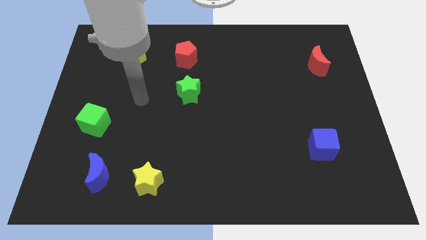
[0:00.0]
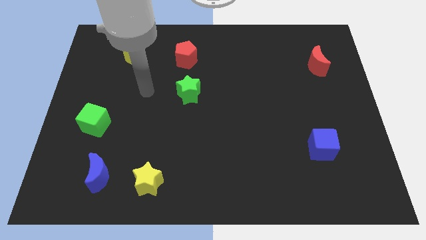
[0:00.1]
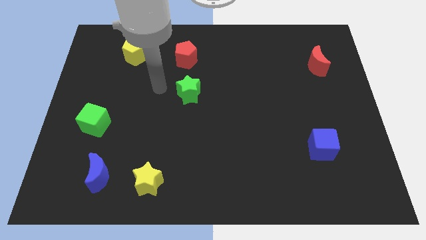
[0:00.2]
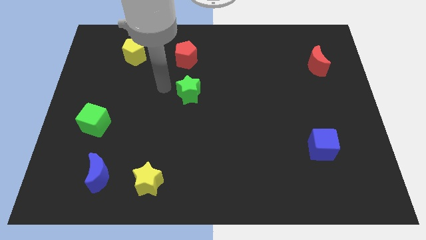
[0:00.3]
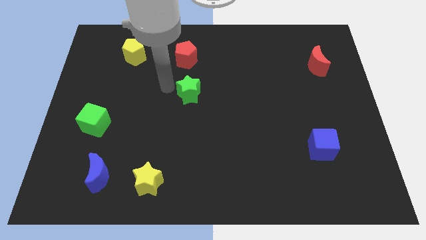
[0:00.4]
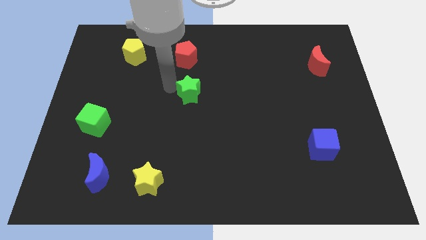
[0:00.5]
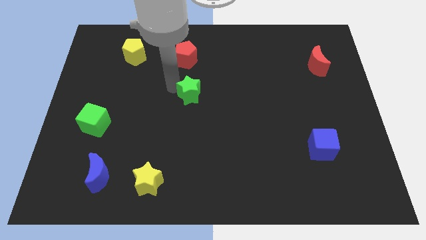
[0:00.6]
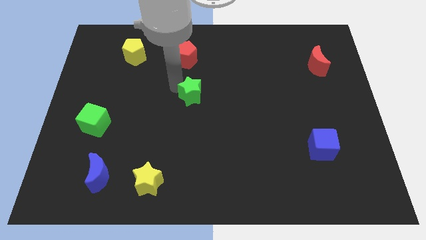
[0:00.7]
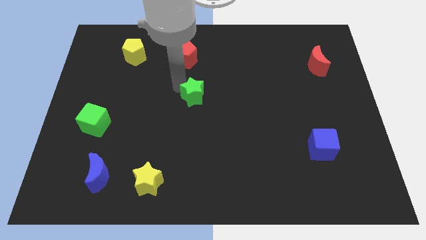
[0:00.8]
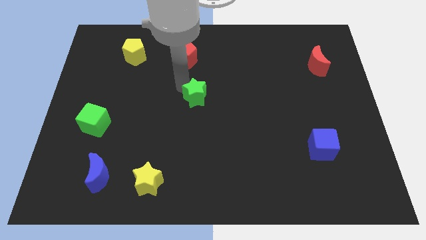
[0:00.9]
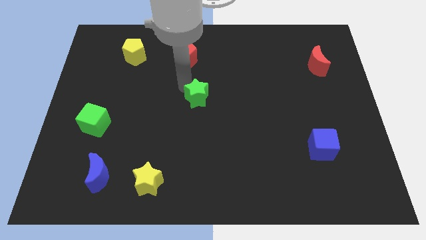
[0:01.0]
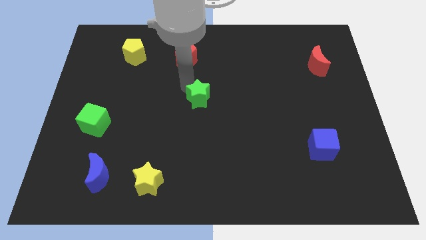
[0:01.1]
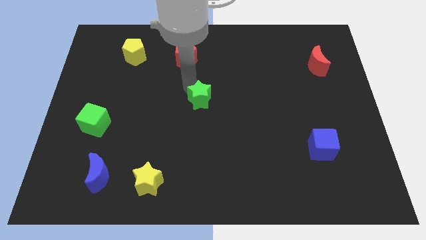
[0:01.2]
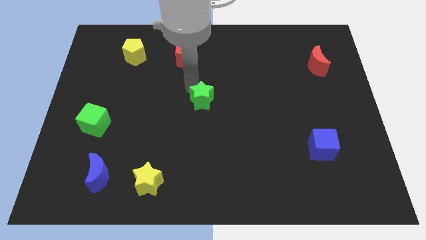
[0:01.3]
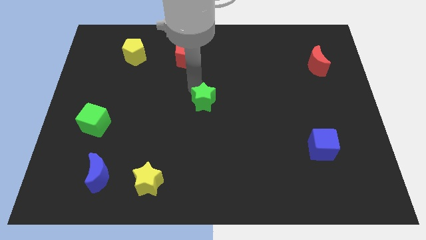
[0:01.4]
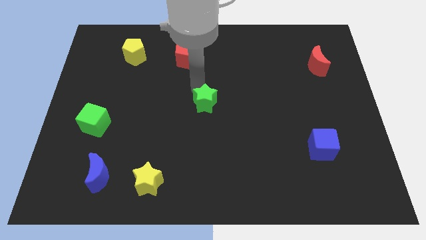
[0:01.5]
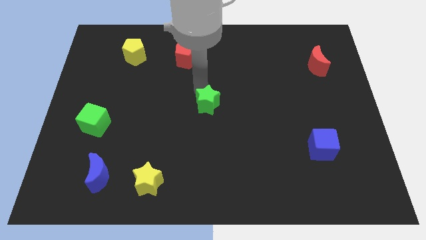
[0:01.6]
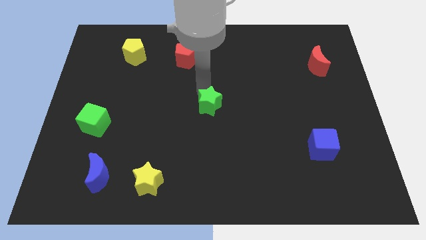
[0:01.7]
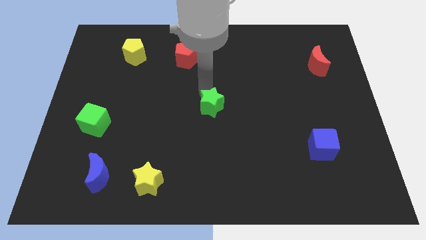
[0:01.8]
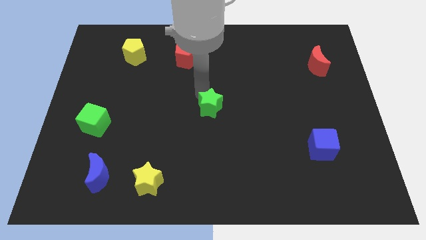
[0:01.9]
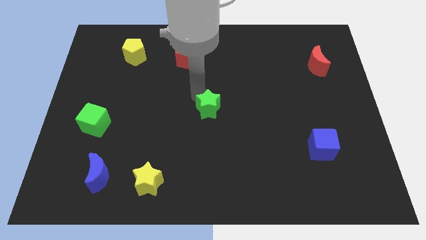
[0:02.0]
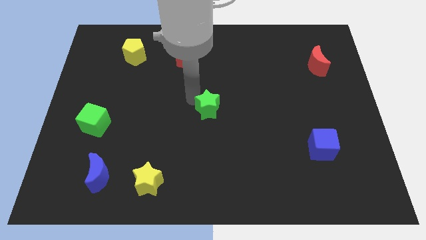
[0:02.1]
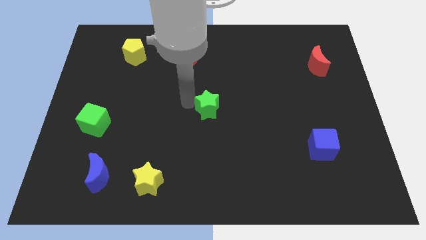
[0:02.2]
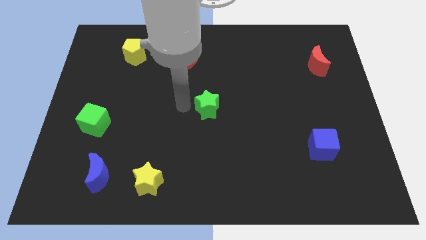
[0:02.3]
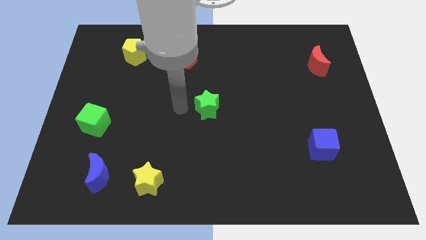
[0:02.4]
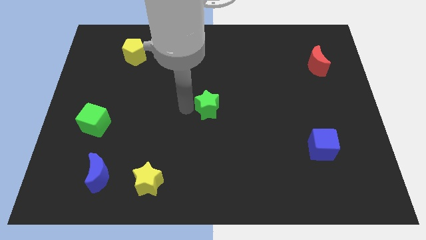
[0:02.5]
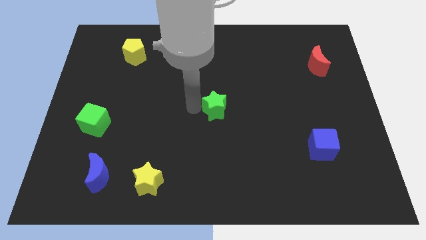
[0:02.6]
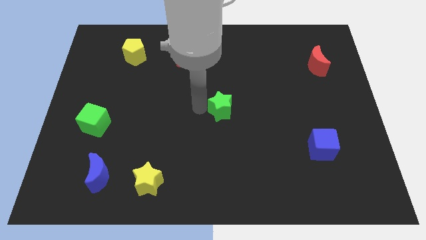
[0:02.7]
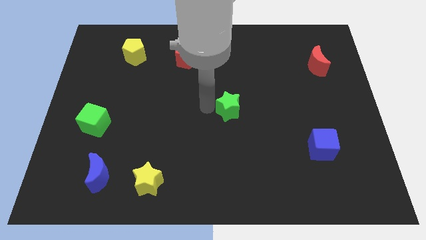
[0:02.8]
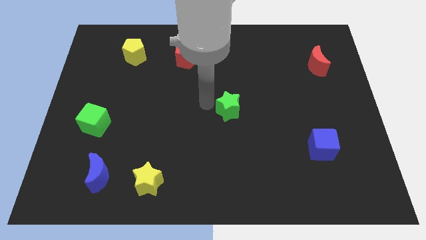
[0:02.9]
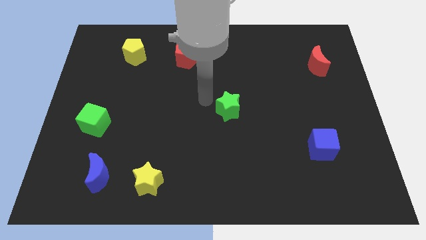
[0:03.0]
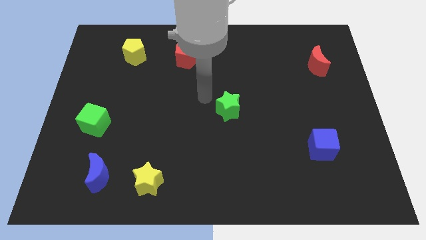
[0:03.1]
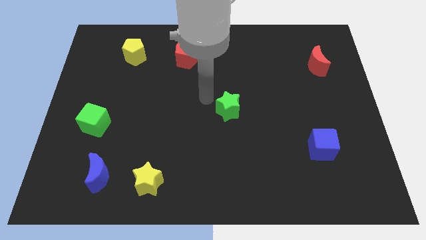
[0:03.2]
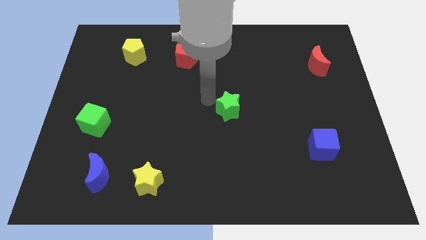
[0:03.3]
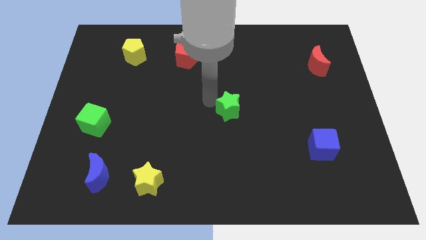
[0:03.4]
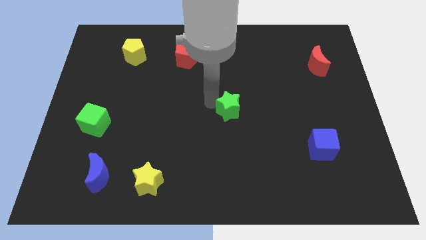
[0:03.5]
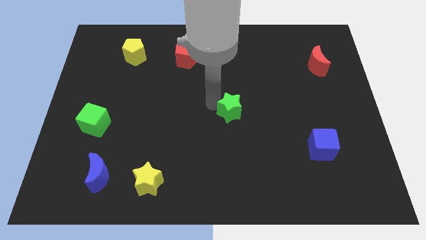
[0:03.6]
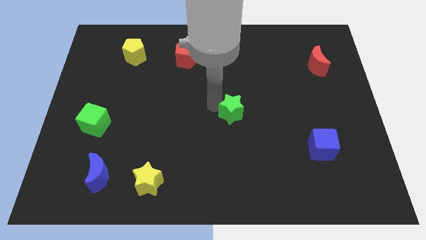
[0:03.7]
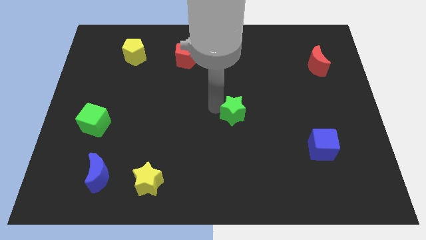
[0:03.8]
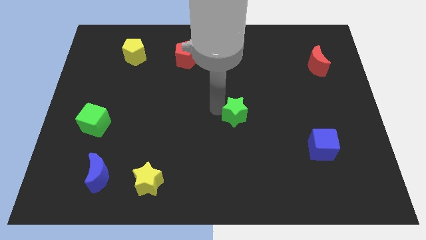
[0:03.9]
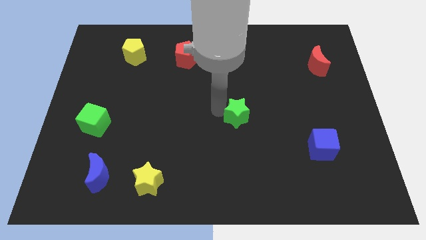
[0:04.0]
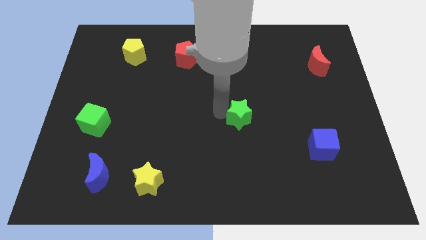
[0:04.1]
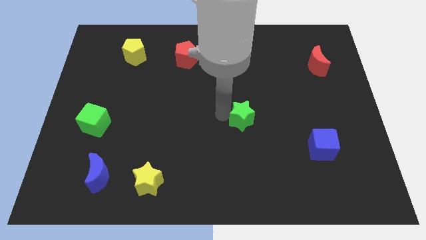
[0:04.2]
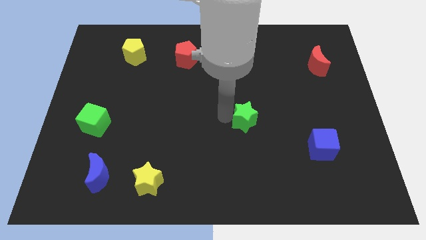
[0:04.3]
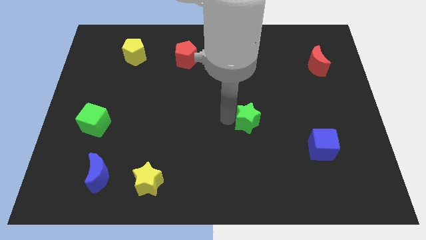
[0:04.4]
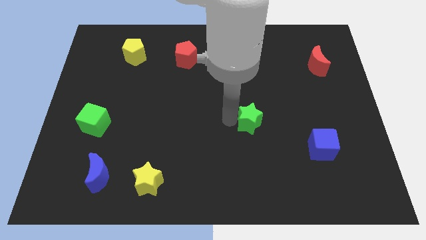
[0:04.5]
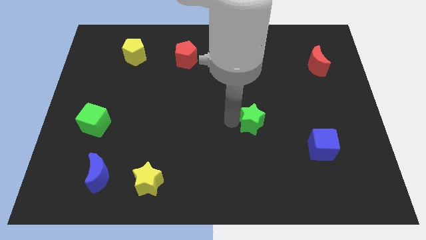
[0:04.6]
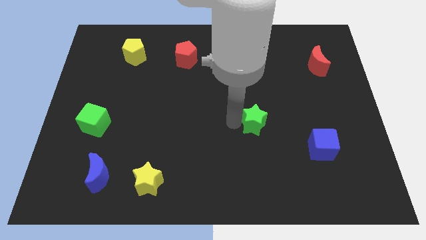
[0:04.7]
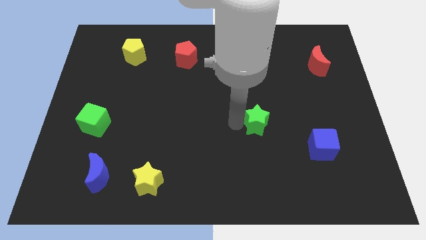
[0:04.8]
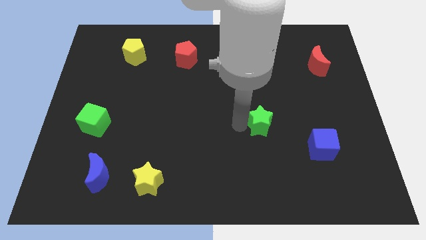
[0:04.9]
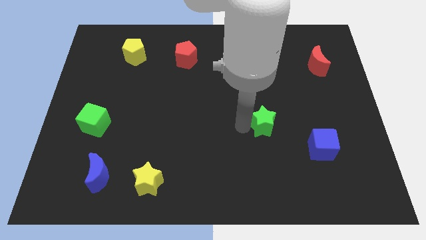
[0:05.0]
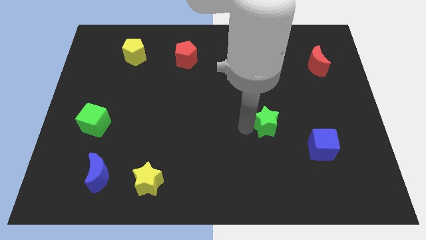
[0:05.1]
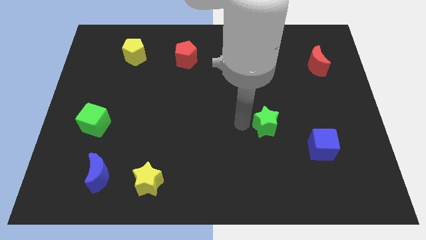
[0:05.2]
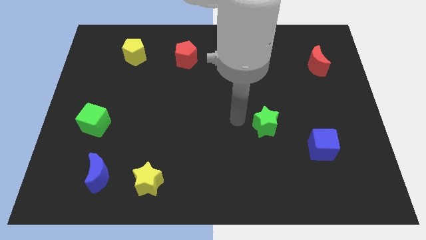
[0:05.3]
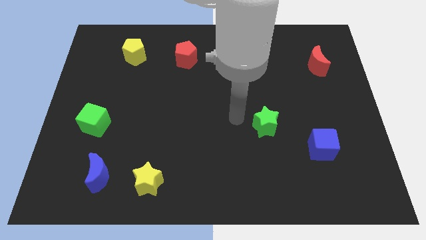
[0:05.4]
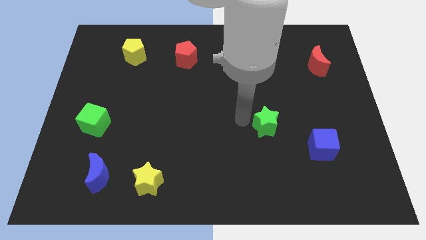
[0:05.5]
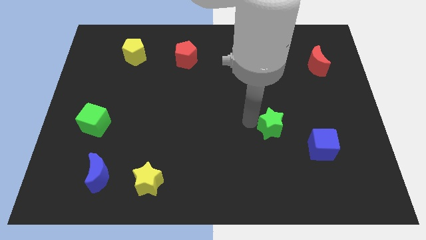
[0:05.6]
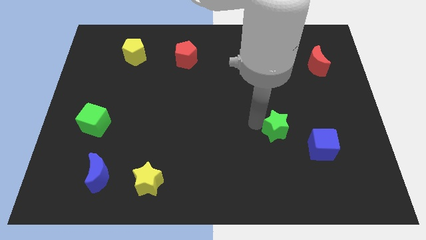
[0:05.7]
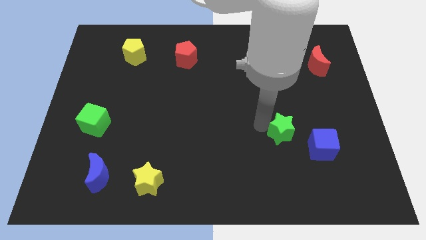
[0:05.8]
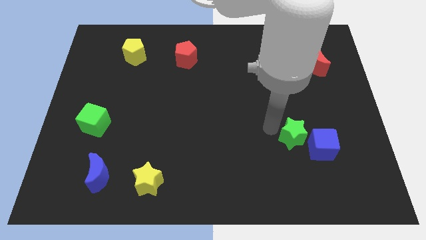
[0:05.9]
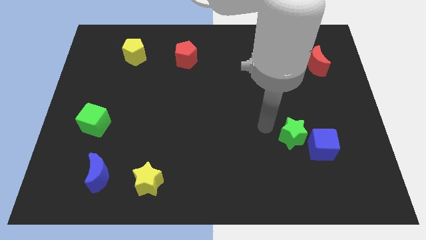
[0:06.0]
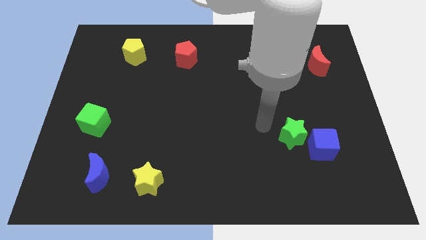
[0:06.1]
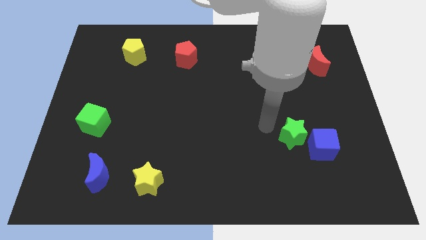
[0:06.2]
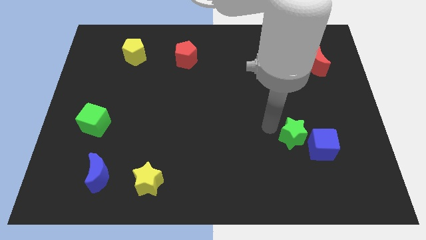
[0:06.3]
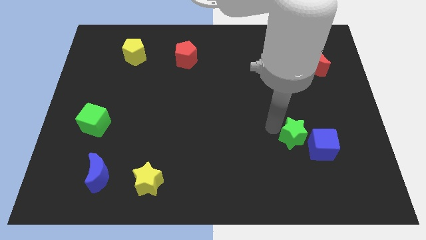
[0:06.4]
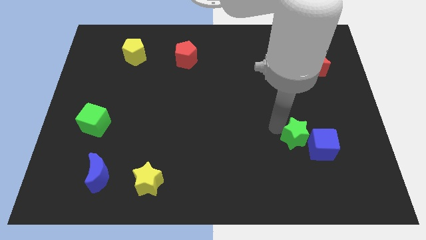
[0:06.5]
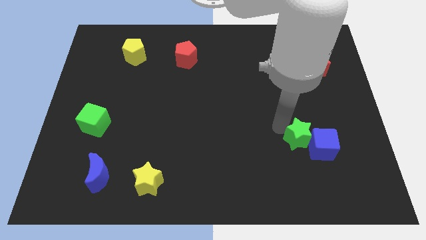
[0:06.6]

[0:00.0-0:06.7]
move the green star close to the blue cube

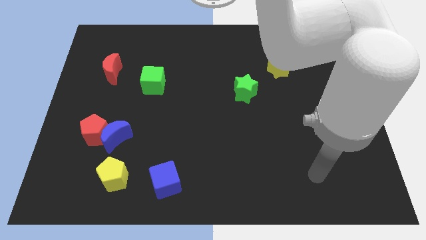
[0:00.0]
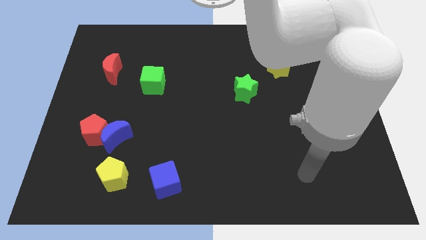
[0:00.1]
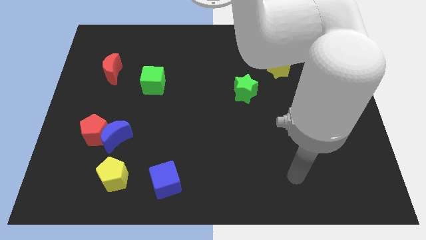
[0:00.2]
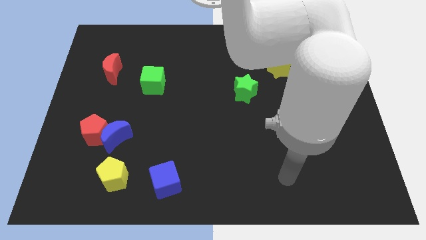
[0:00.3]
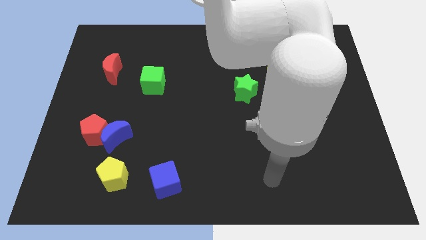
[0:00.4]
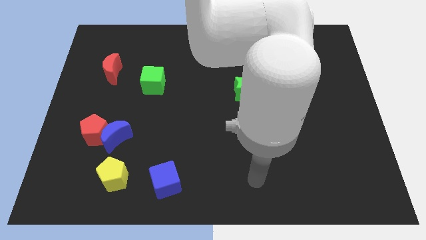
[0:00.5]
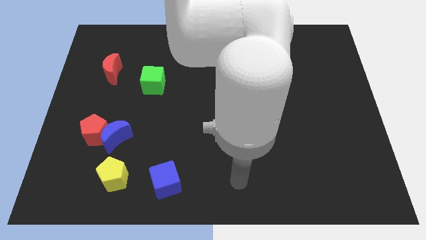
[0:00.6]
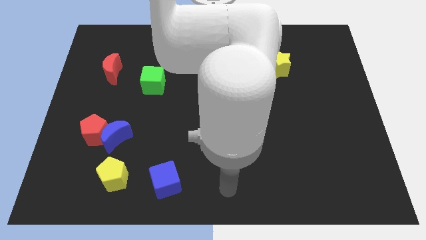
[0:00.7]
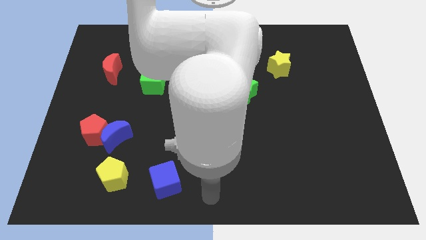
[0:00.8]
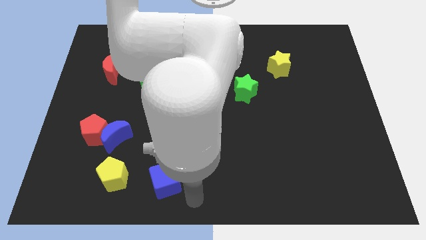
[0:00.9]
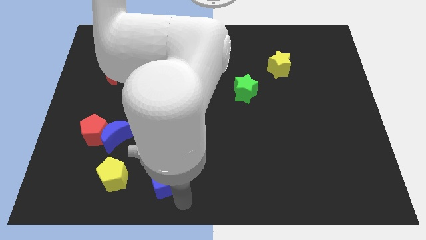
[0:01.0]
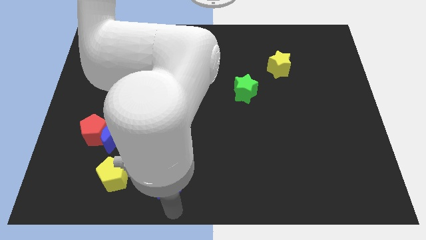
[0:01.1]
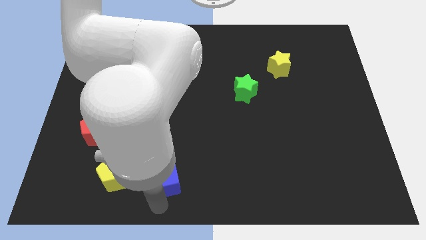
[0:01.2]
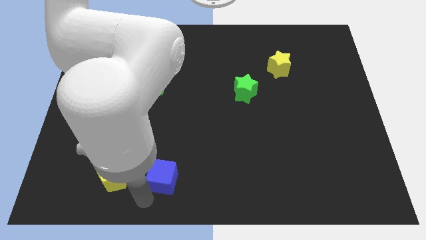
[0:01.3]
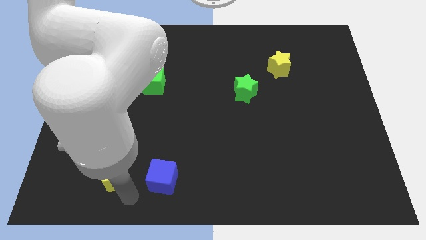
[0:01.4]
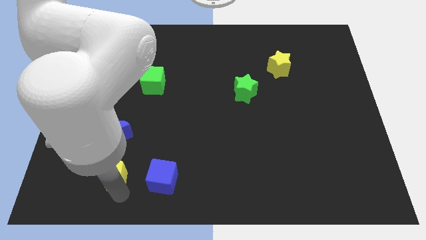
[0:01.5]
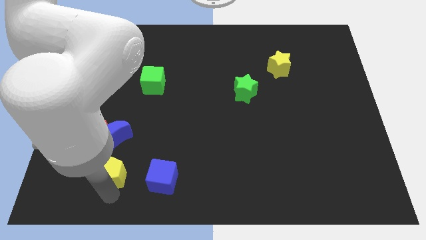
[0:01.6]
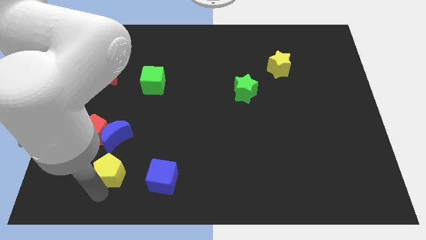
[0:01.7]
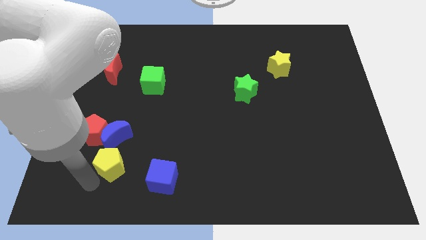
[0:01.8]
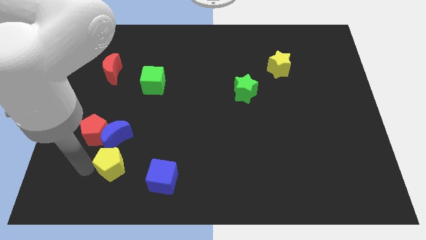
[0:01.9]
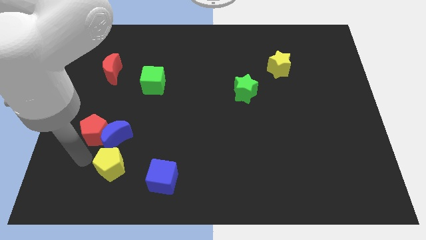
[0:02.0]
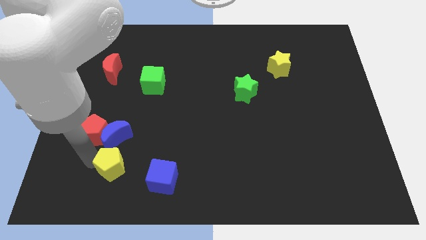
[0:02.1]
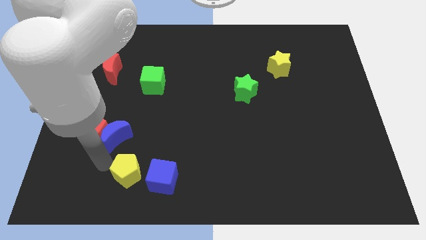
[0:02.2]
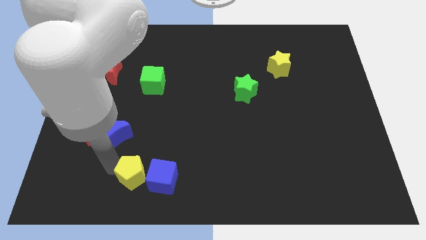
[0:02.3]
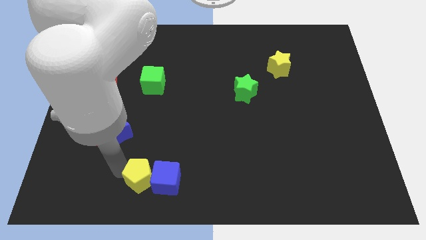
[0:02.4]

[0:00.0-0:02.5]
push the yellow pentagon to the blue cube
